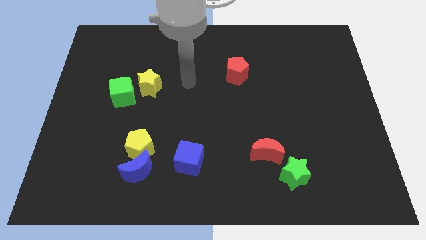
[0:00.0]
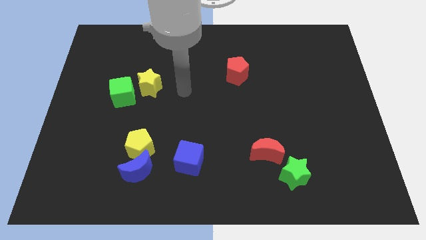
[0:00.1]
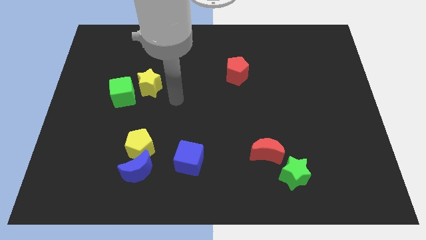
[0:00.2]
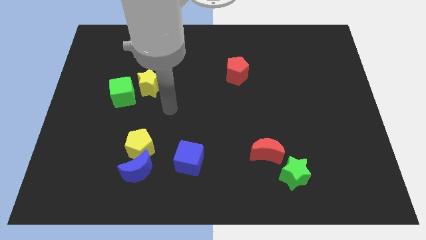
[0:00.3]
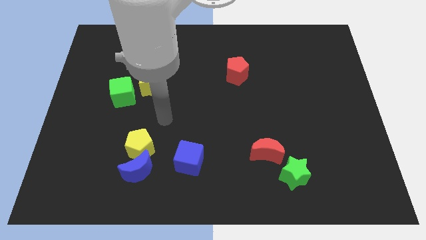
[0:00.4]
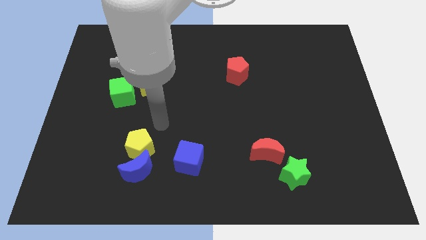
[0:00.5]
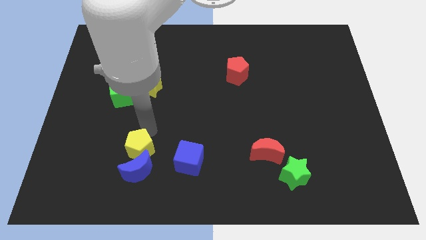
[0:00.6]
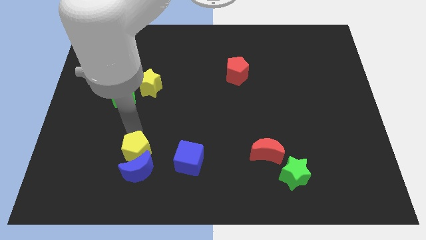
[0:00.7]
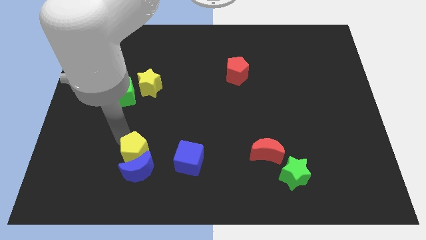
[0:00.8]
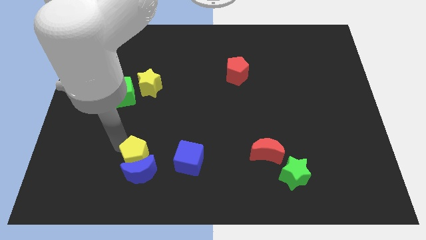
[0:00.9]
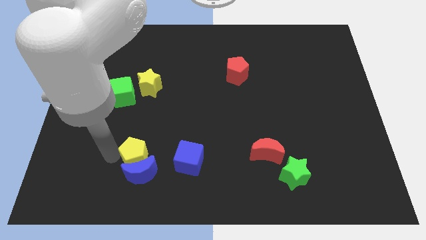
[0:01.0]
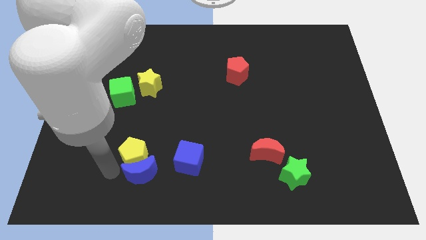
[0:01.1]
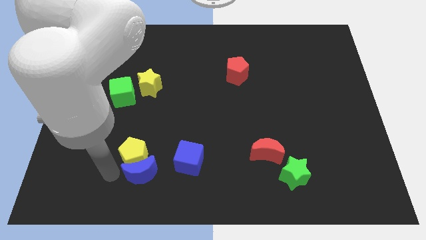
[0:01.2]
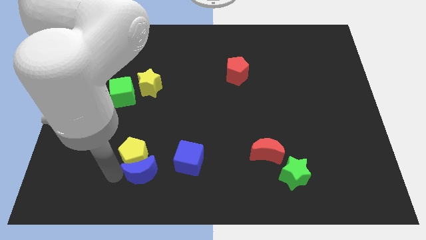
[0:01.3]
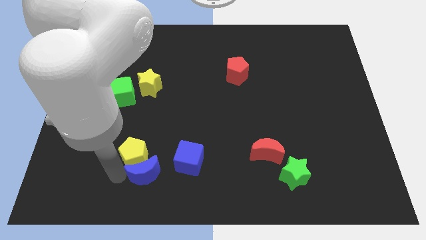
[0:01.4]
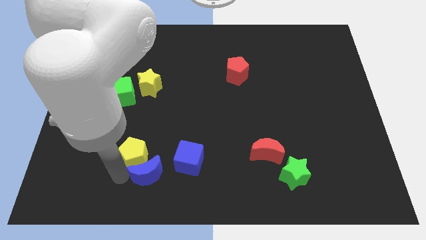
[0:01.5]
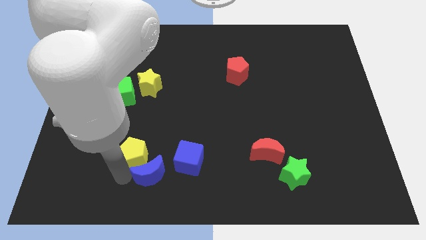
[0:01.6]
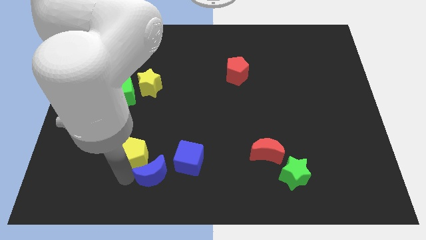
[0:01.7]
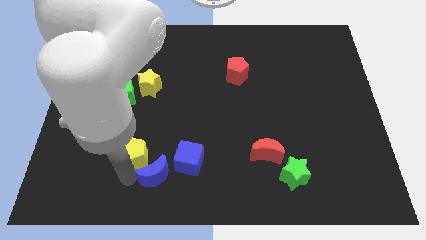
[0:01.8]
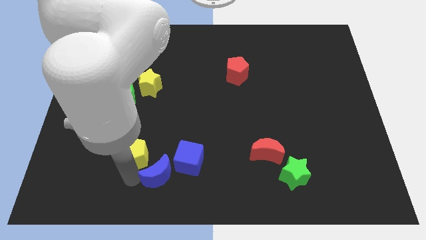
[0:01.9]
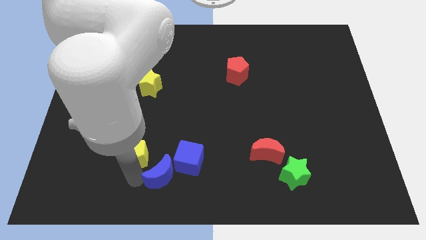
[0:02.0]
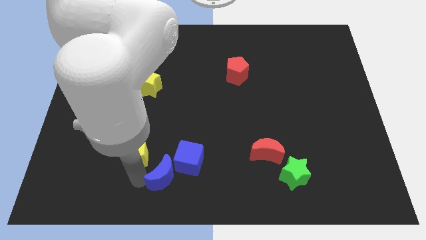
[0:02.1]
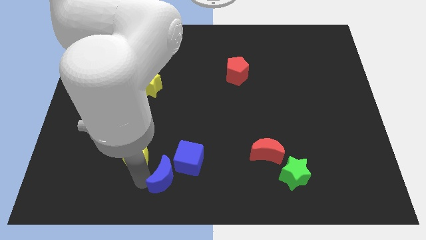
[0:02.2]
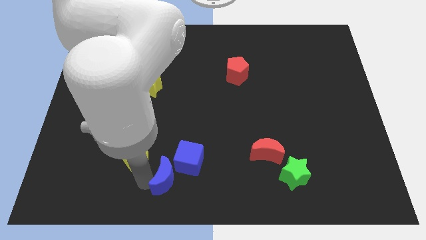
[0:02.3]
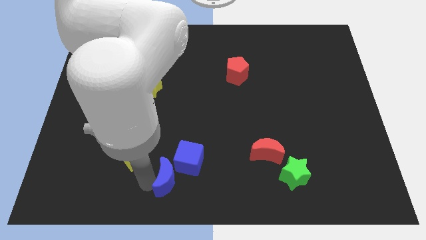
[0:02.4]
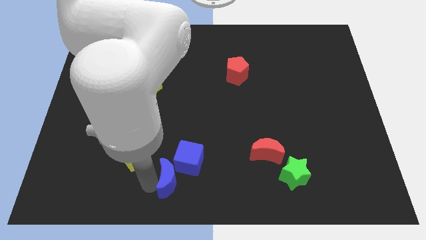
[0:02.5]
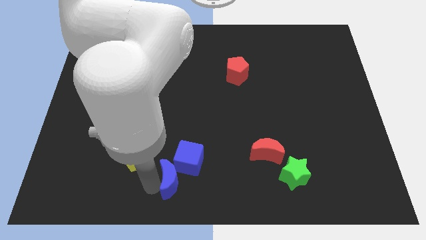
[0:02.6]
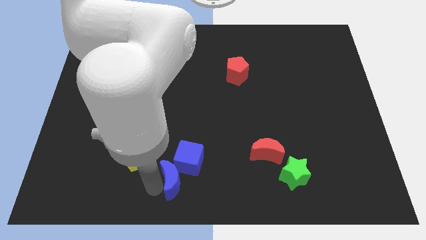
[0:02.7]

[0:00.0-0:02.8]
push the blue moon right a bit

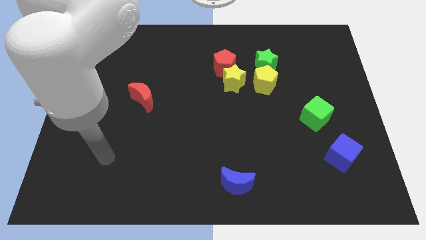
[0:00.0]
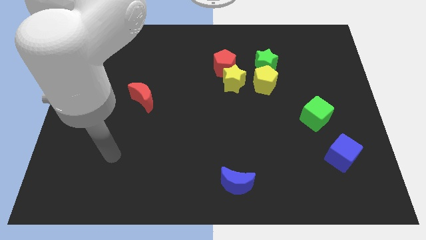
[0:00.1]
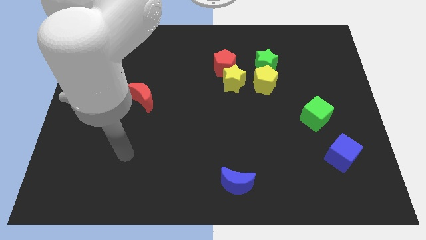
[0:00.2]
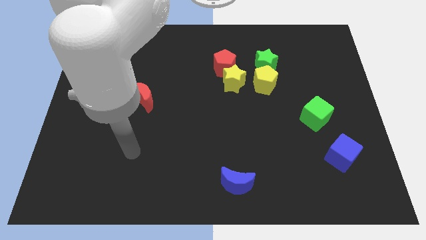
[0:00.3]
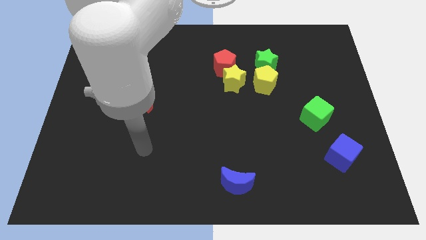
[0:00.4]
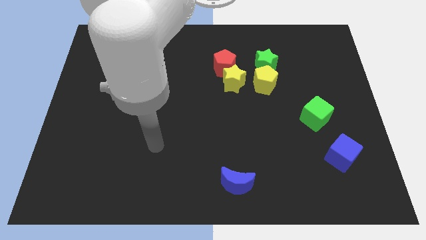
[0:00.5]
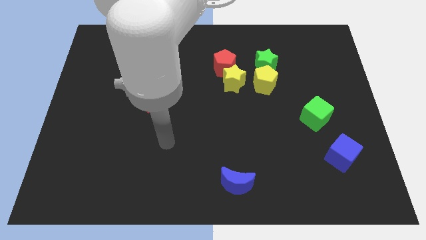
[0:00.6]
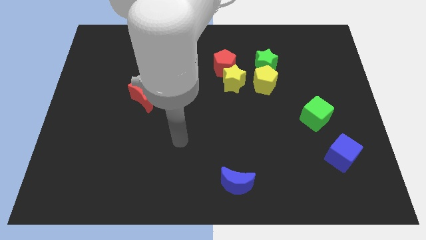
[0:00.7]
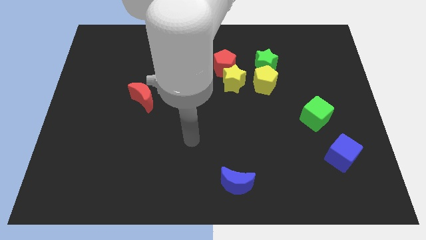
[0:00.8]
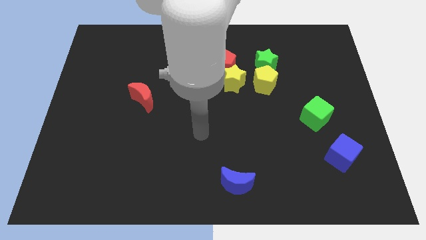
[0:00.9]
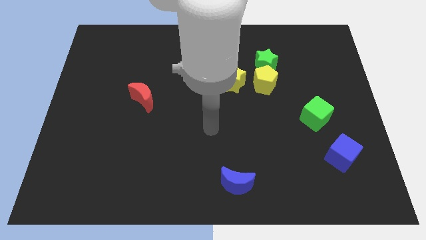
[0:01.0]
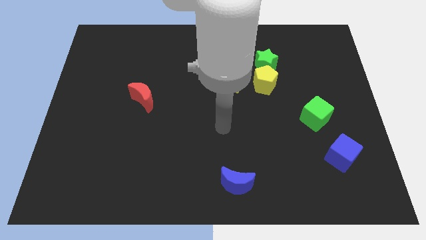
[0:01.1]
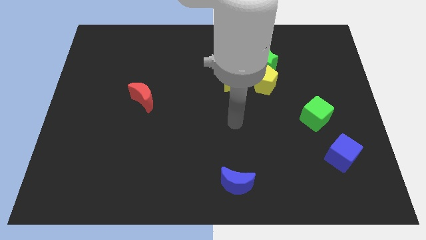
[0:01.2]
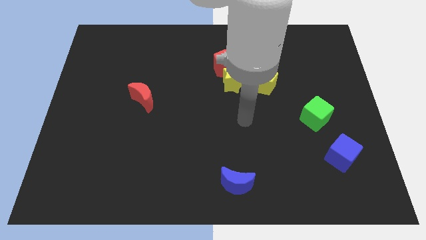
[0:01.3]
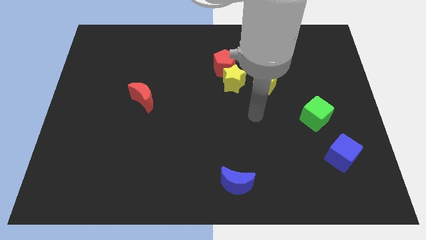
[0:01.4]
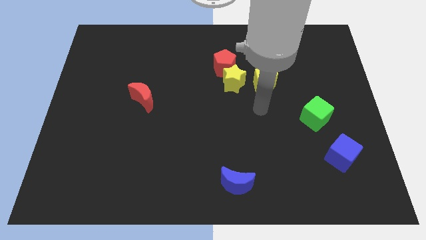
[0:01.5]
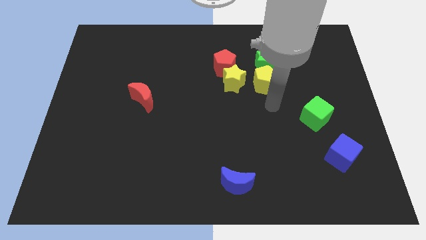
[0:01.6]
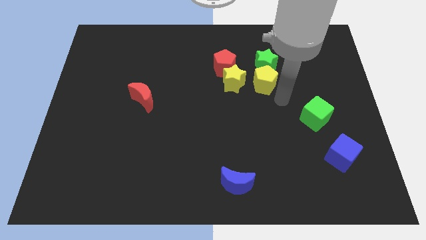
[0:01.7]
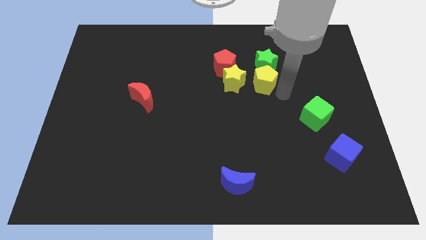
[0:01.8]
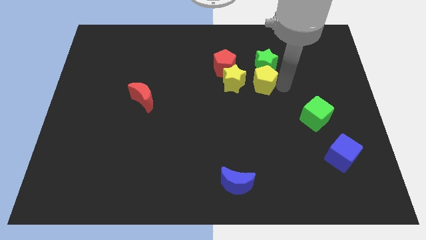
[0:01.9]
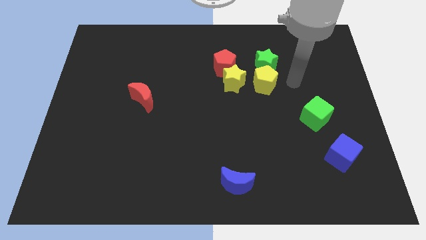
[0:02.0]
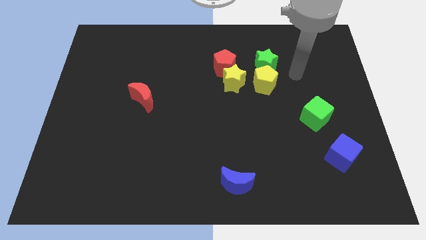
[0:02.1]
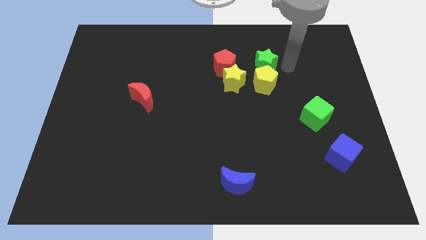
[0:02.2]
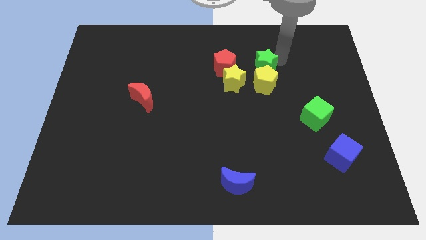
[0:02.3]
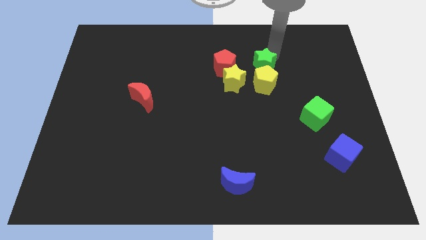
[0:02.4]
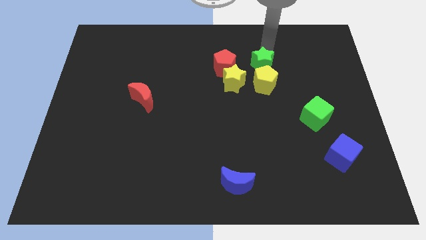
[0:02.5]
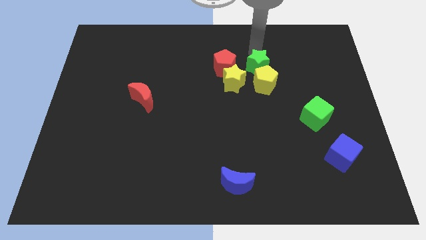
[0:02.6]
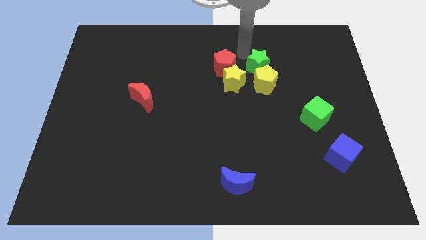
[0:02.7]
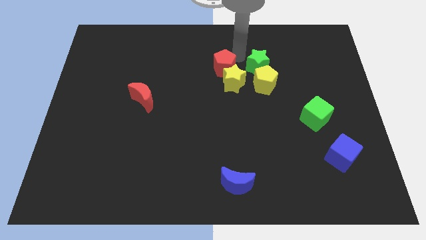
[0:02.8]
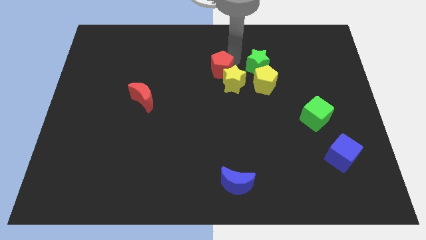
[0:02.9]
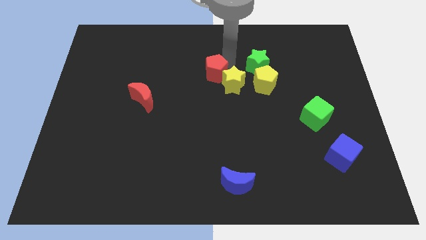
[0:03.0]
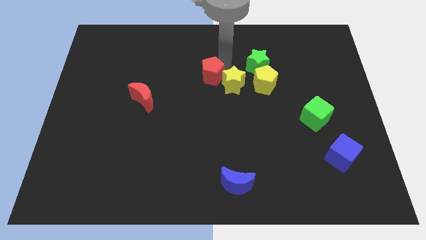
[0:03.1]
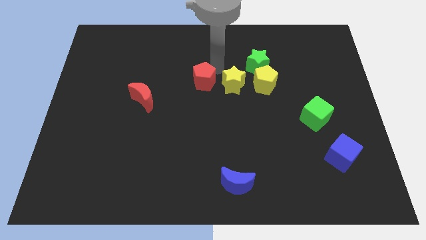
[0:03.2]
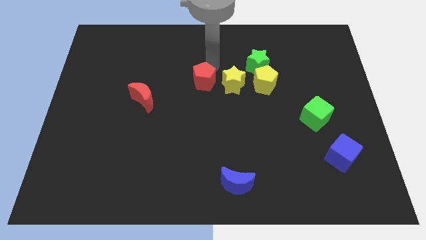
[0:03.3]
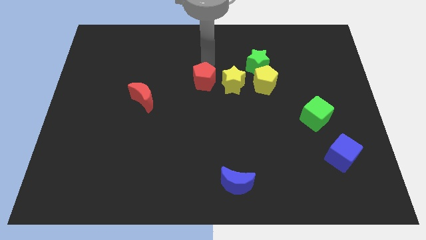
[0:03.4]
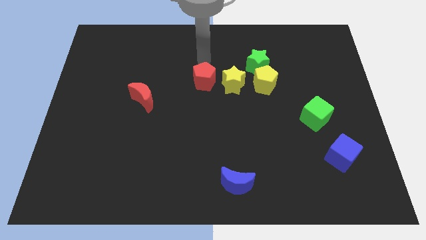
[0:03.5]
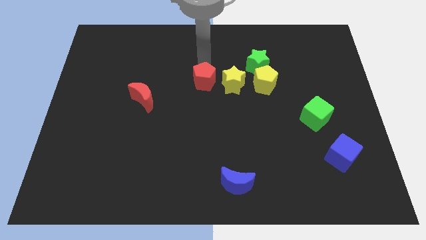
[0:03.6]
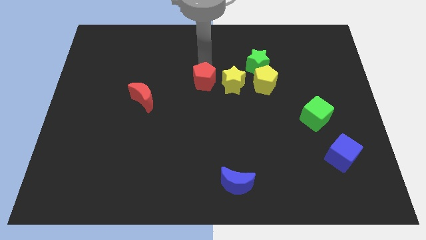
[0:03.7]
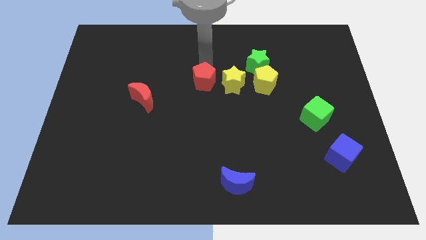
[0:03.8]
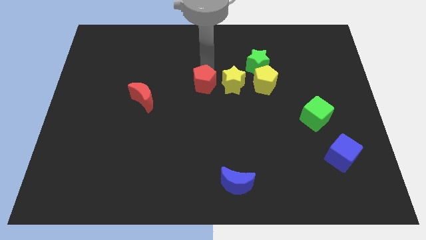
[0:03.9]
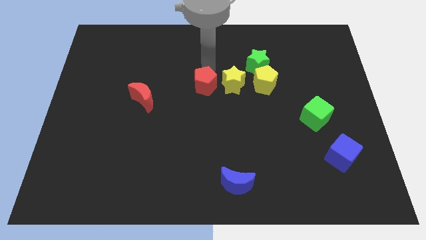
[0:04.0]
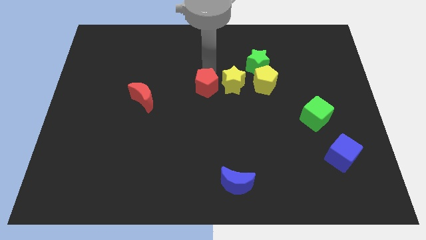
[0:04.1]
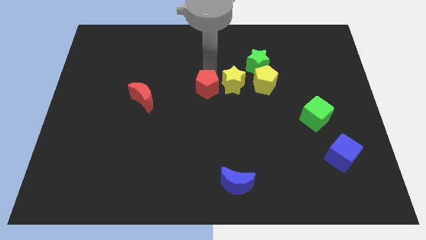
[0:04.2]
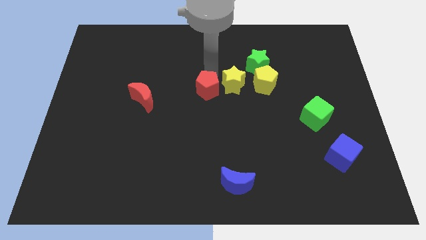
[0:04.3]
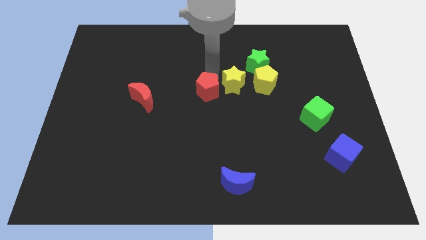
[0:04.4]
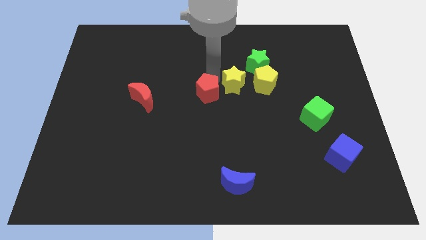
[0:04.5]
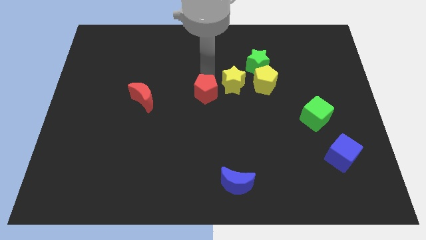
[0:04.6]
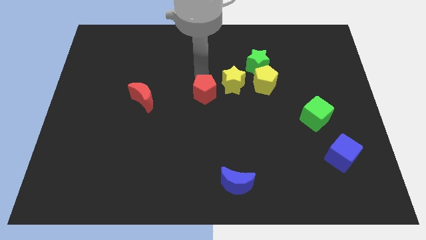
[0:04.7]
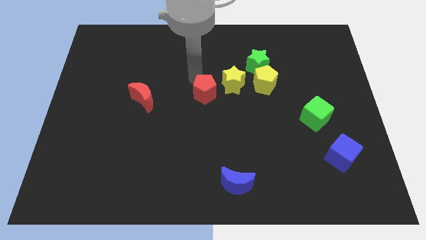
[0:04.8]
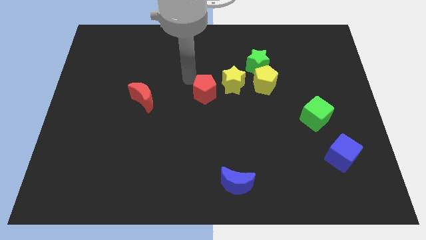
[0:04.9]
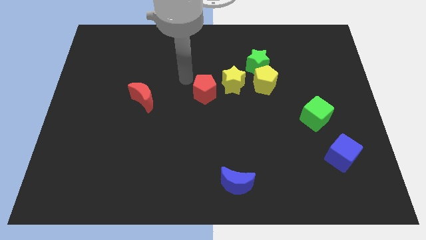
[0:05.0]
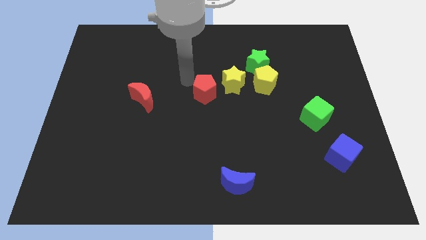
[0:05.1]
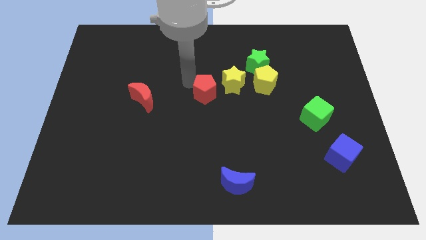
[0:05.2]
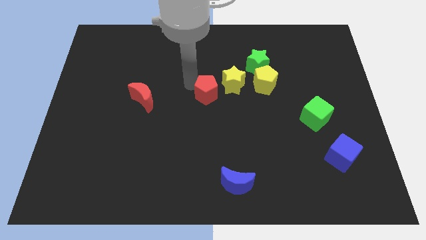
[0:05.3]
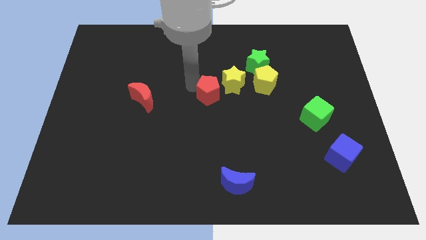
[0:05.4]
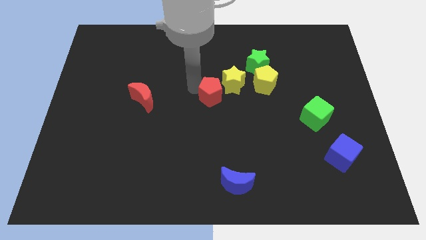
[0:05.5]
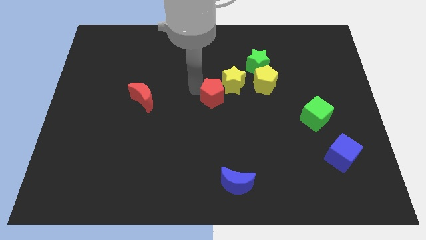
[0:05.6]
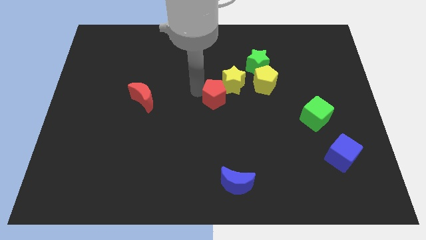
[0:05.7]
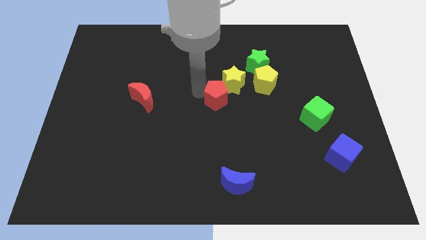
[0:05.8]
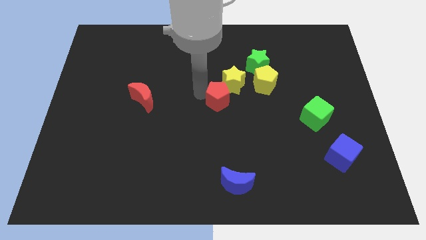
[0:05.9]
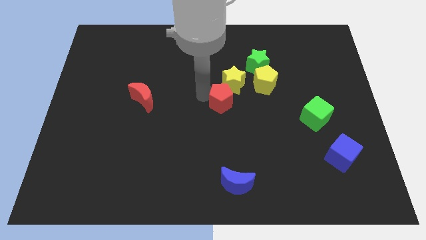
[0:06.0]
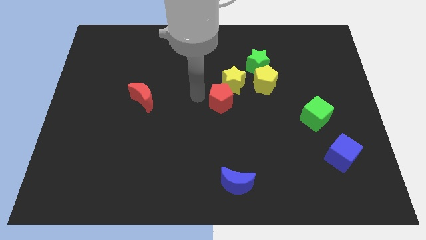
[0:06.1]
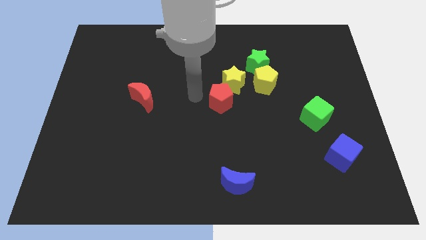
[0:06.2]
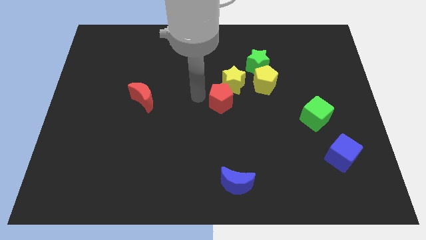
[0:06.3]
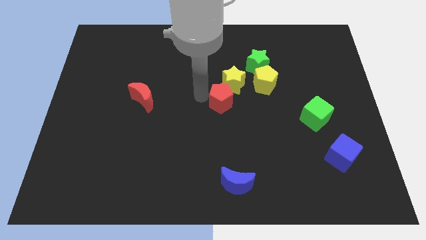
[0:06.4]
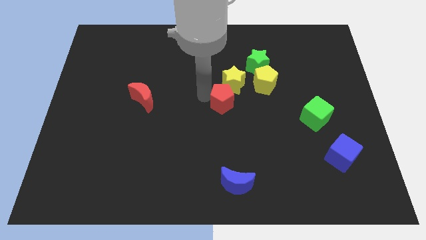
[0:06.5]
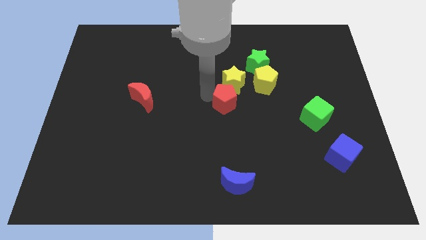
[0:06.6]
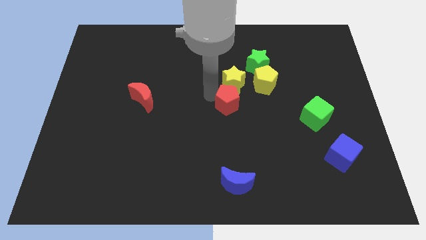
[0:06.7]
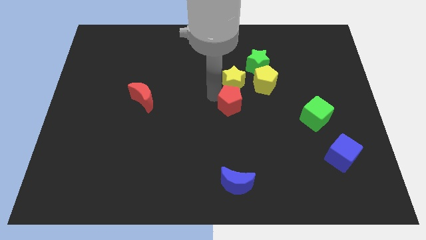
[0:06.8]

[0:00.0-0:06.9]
move the red pentagon a little down and then to the right
